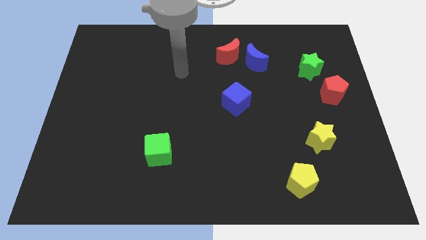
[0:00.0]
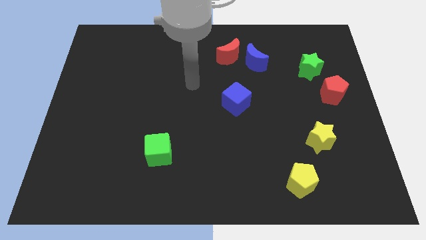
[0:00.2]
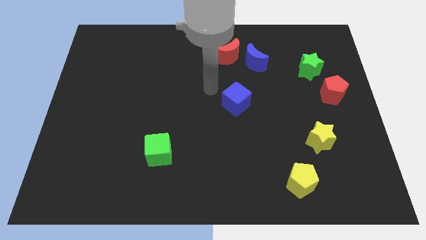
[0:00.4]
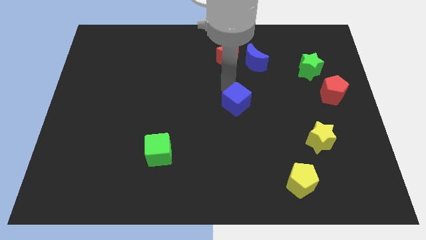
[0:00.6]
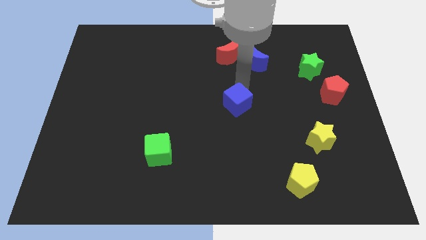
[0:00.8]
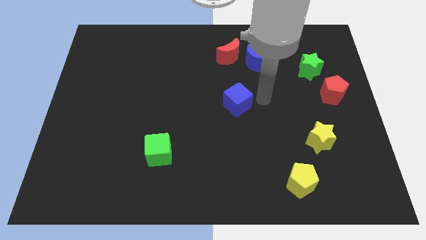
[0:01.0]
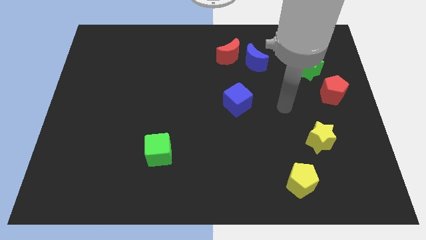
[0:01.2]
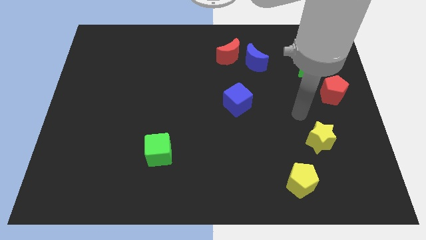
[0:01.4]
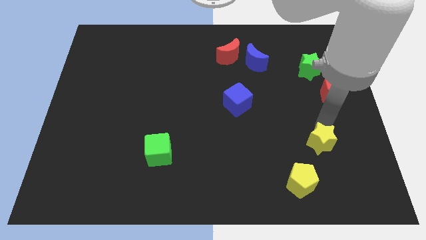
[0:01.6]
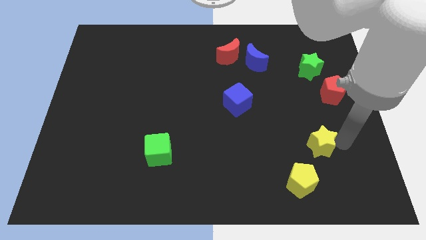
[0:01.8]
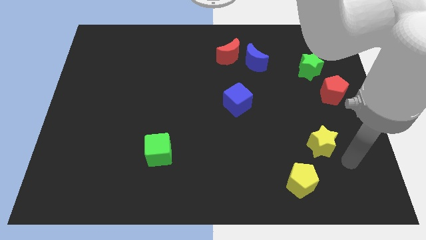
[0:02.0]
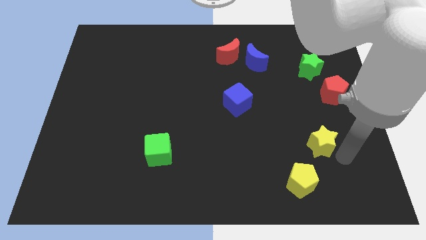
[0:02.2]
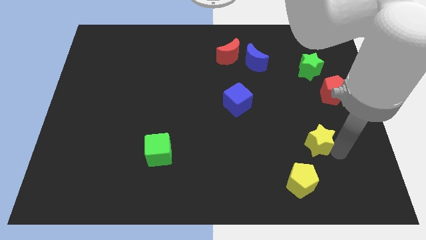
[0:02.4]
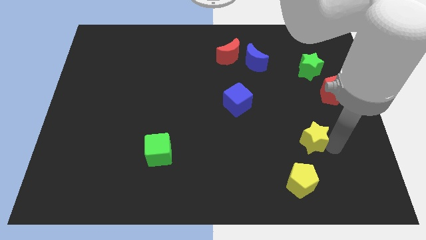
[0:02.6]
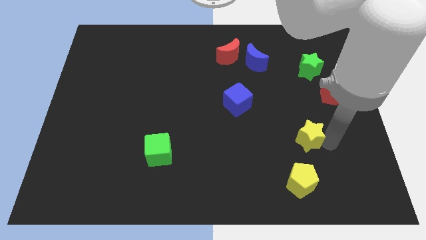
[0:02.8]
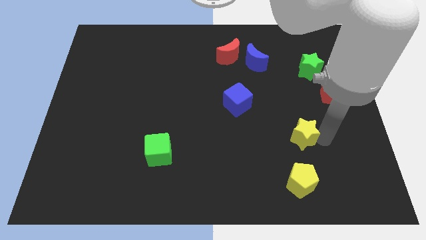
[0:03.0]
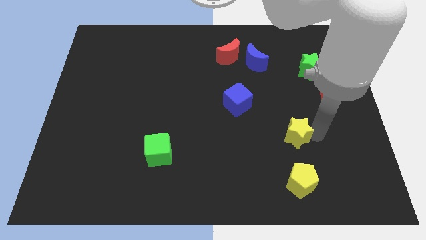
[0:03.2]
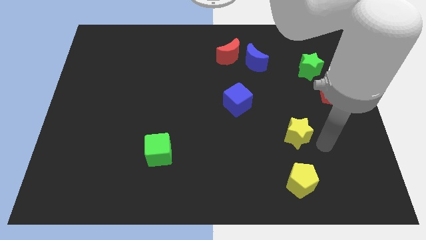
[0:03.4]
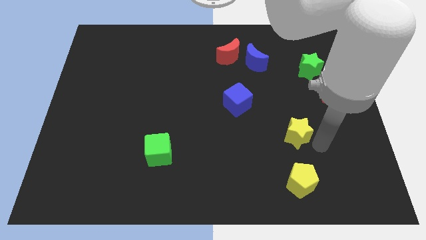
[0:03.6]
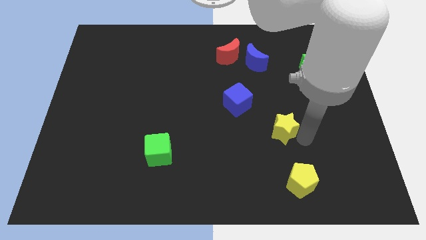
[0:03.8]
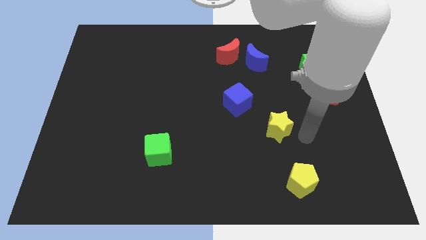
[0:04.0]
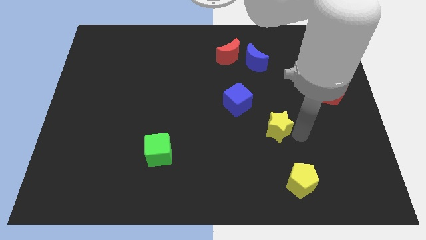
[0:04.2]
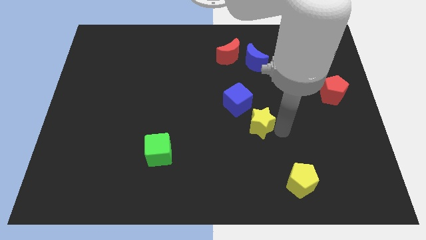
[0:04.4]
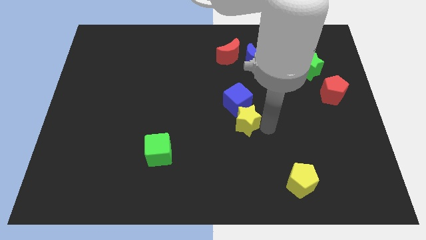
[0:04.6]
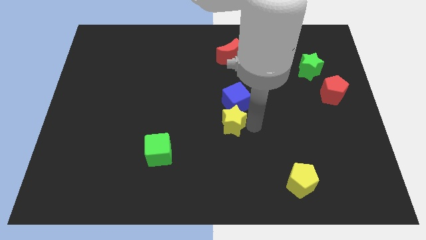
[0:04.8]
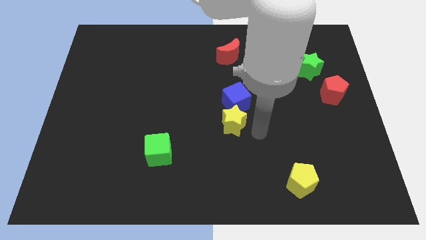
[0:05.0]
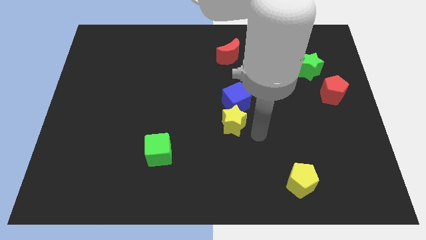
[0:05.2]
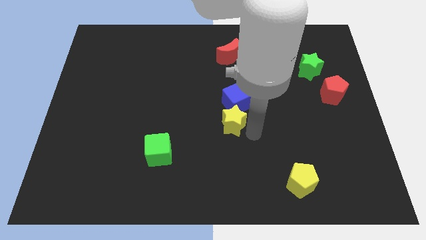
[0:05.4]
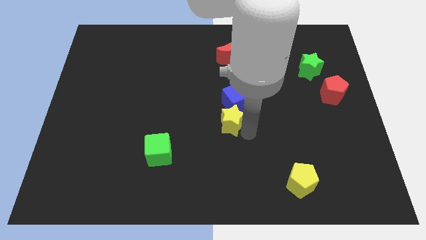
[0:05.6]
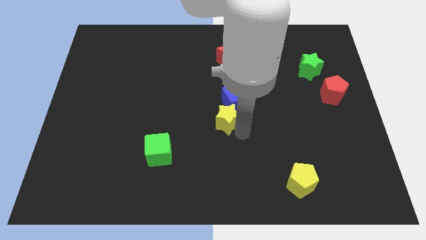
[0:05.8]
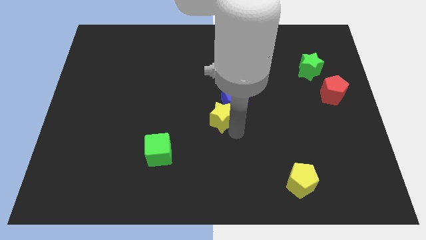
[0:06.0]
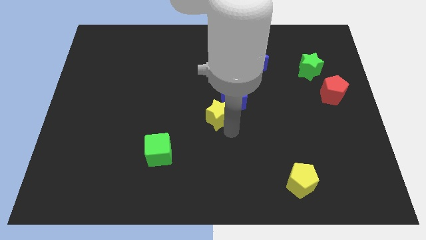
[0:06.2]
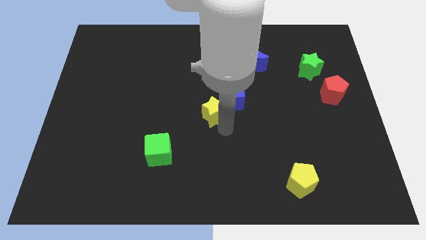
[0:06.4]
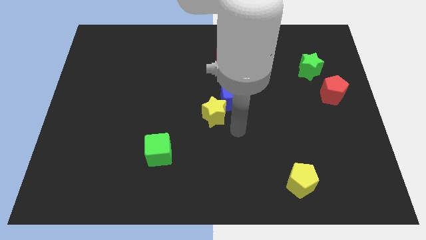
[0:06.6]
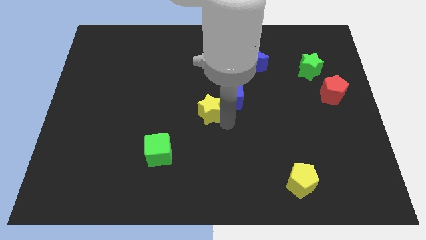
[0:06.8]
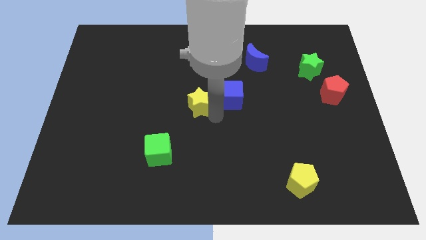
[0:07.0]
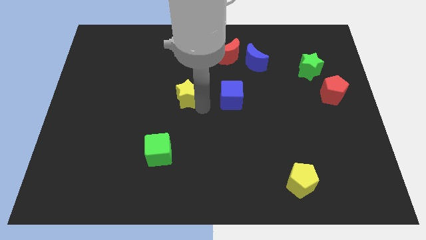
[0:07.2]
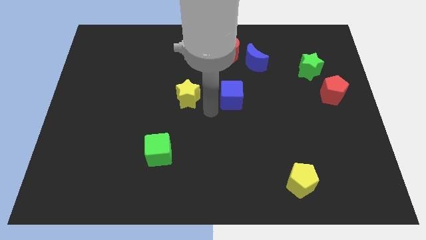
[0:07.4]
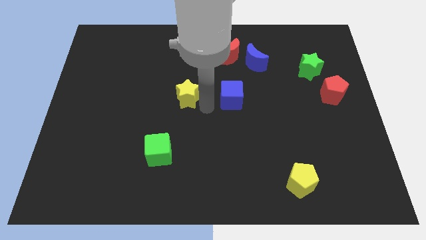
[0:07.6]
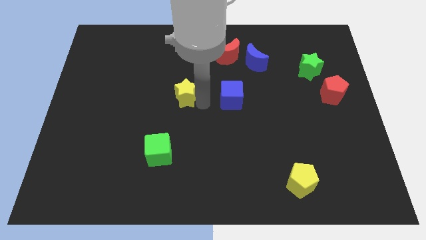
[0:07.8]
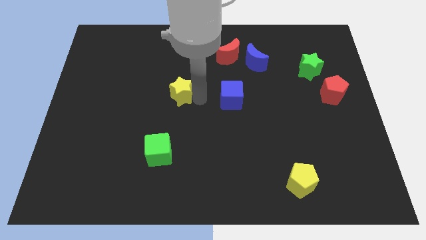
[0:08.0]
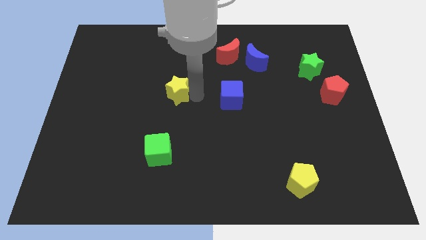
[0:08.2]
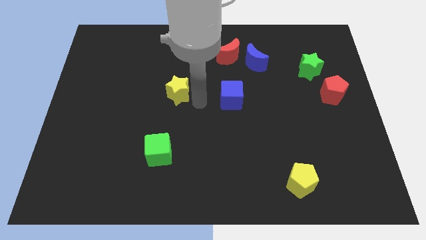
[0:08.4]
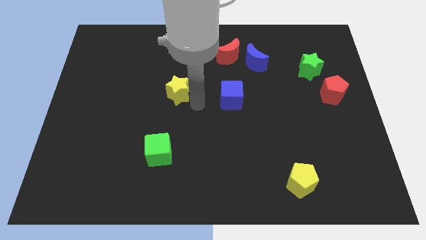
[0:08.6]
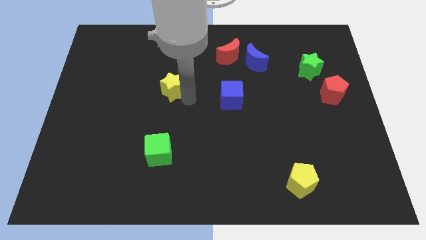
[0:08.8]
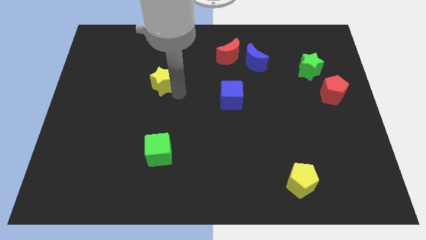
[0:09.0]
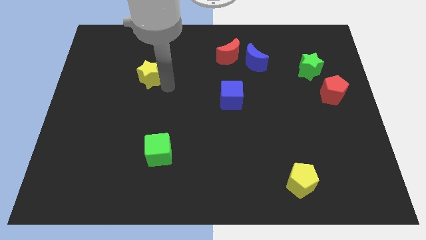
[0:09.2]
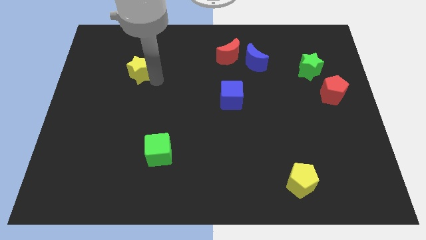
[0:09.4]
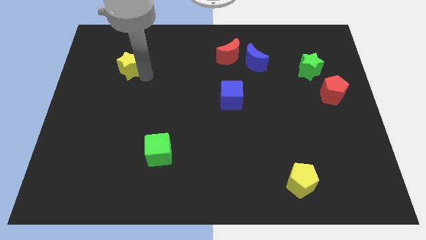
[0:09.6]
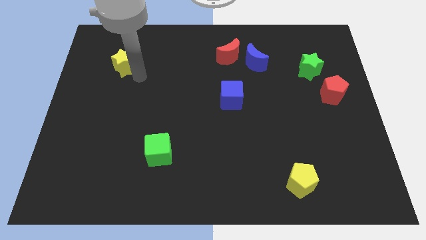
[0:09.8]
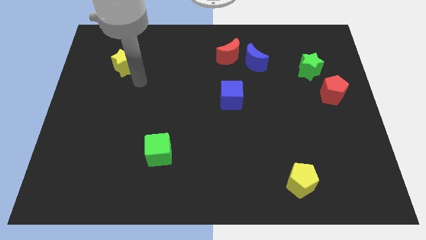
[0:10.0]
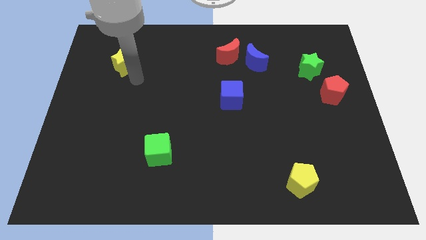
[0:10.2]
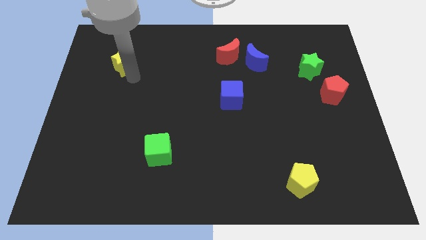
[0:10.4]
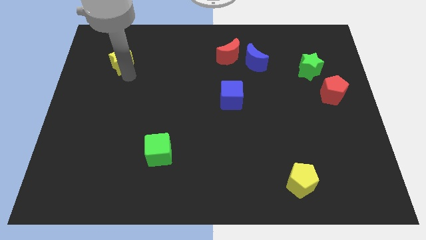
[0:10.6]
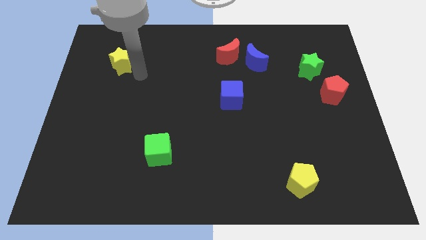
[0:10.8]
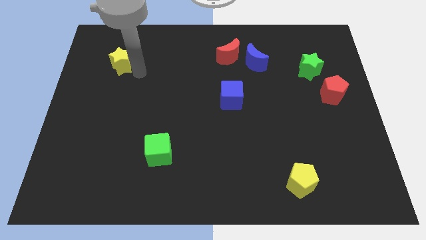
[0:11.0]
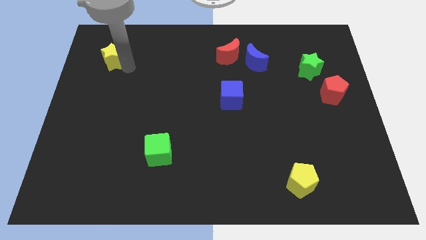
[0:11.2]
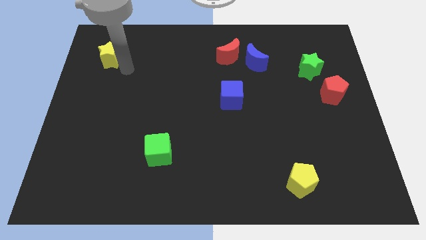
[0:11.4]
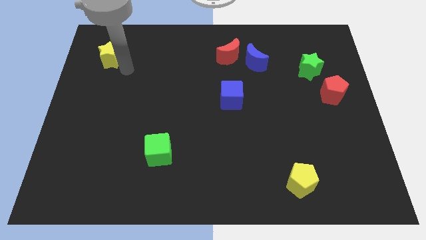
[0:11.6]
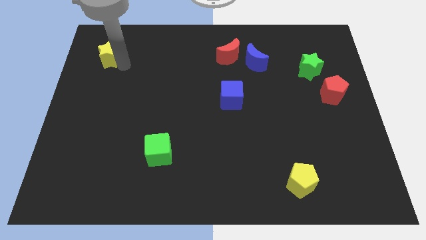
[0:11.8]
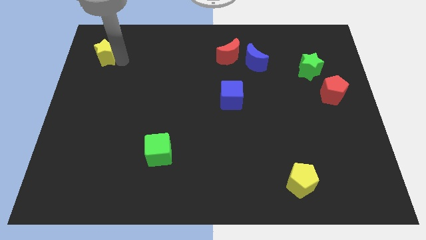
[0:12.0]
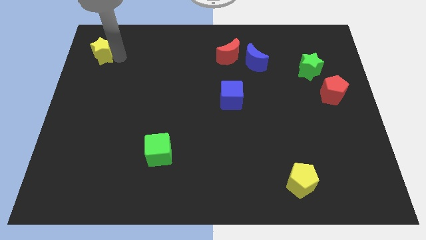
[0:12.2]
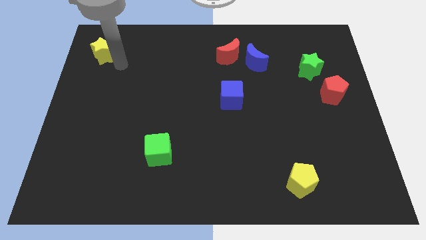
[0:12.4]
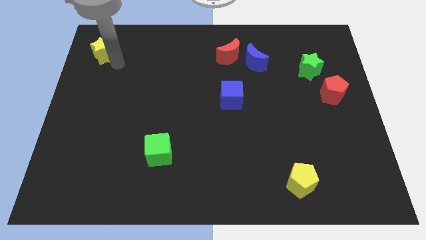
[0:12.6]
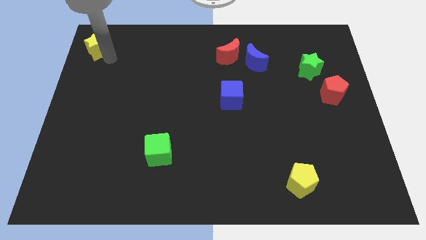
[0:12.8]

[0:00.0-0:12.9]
slide the yellow star to the top left of the board
